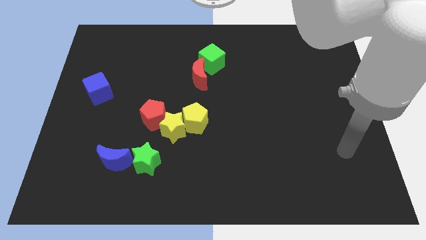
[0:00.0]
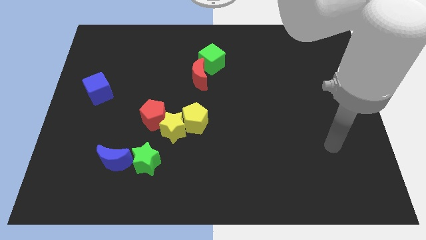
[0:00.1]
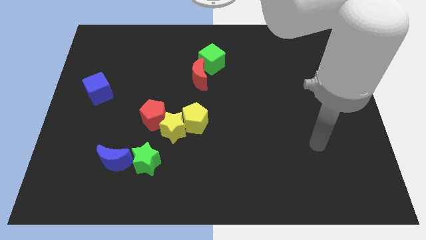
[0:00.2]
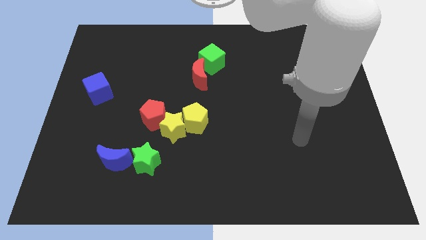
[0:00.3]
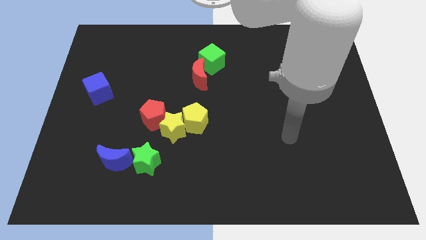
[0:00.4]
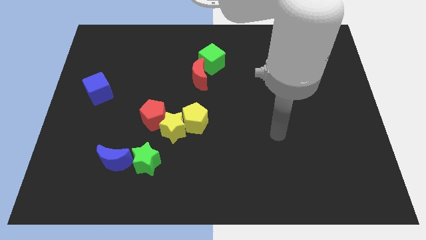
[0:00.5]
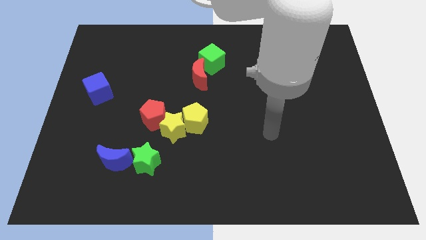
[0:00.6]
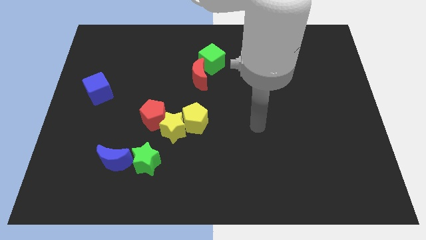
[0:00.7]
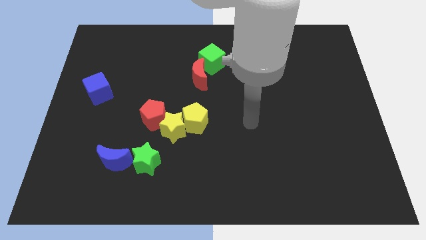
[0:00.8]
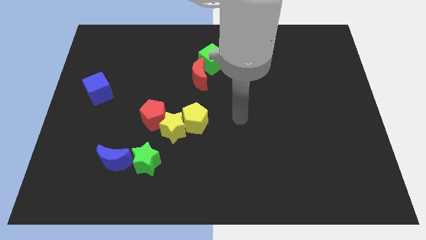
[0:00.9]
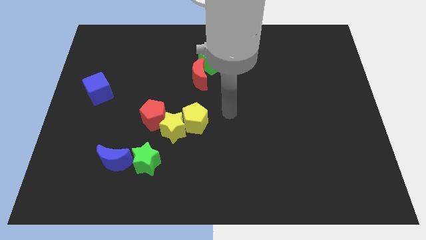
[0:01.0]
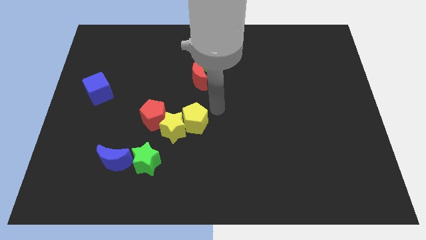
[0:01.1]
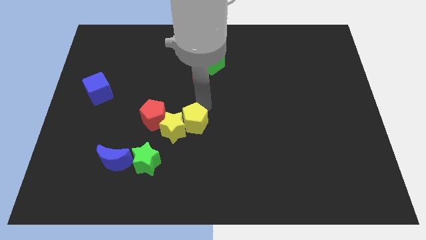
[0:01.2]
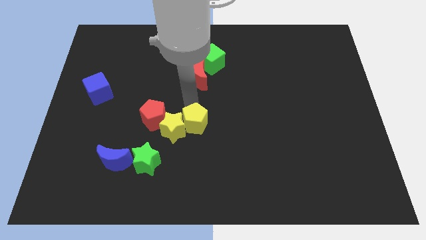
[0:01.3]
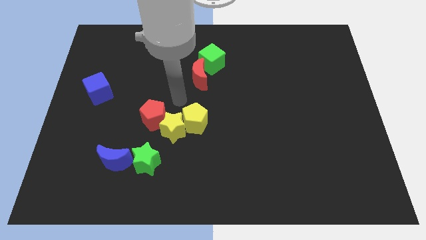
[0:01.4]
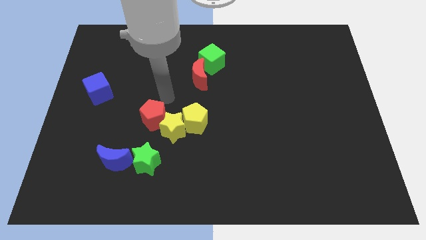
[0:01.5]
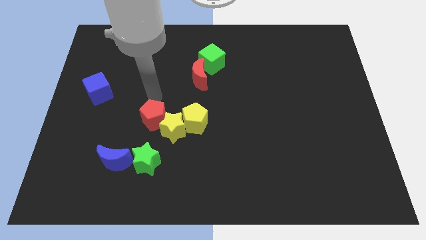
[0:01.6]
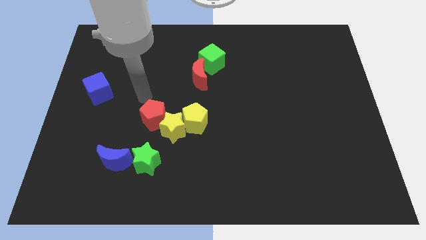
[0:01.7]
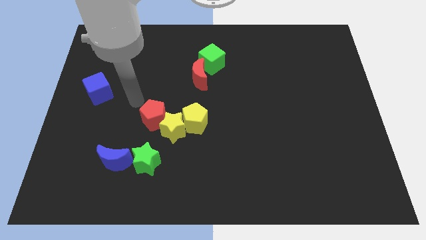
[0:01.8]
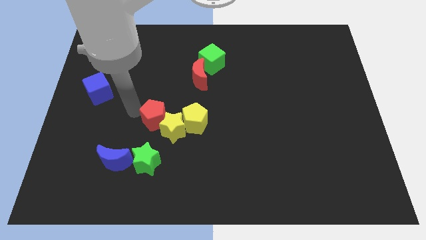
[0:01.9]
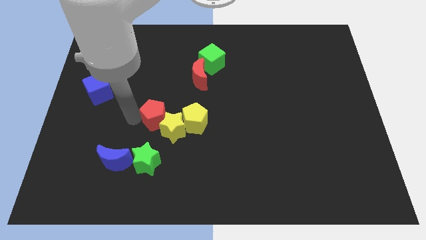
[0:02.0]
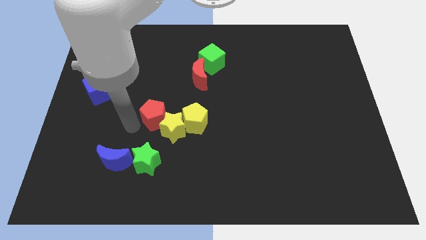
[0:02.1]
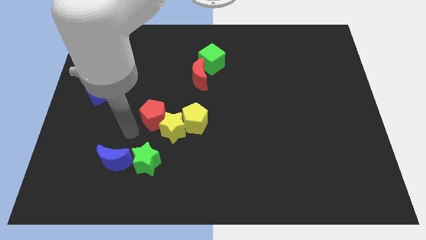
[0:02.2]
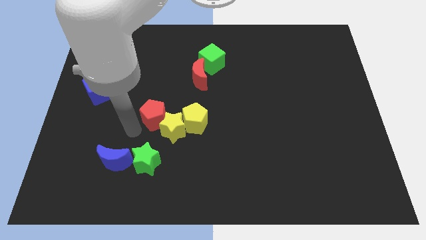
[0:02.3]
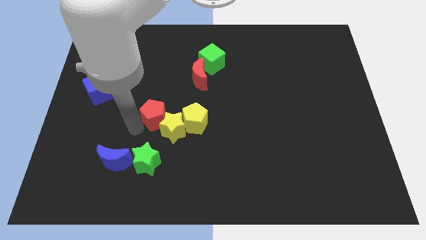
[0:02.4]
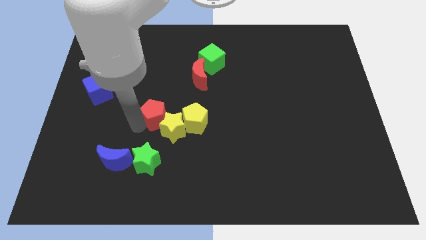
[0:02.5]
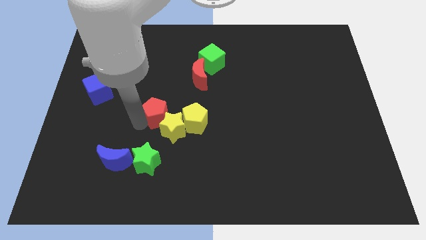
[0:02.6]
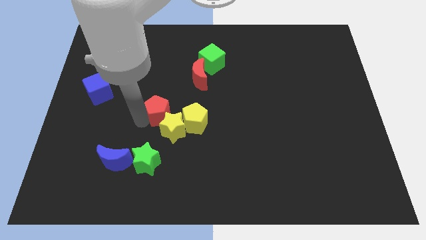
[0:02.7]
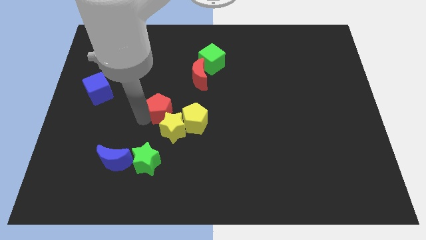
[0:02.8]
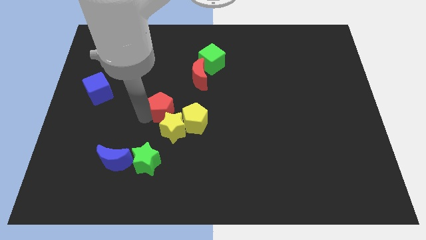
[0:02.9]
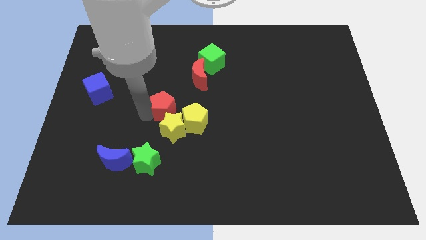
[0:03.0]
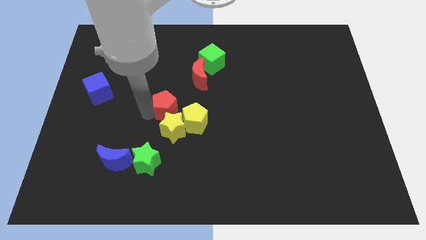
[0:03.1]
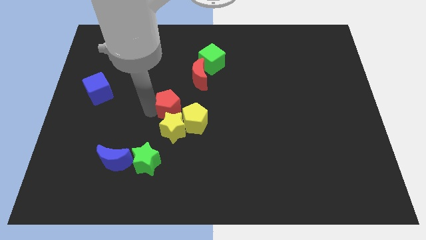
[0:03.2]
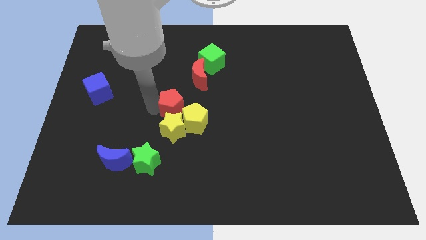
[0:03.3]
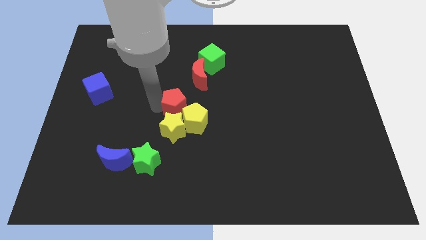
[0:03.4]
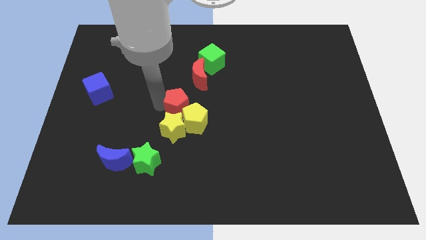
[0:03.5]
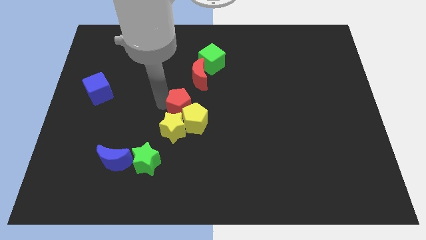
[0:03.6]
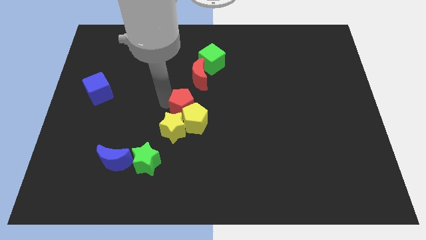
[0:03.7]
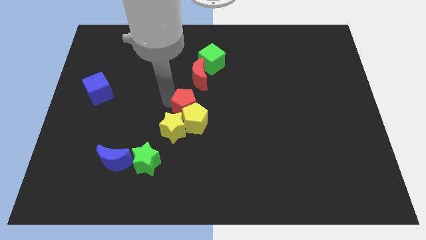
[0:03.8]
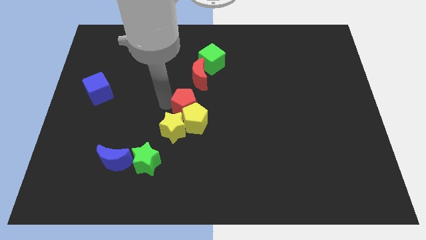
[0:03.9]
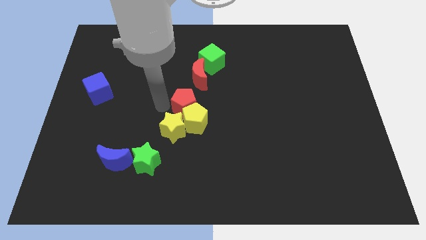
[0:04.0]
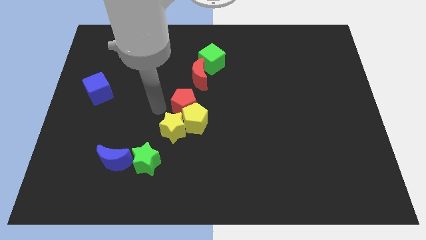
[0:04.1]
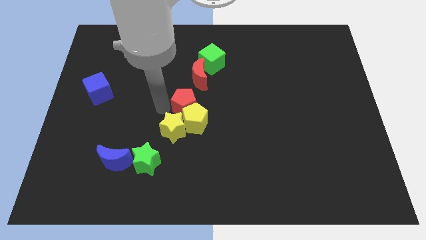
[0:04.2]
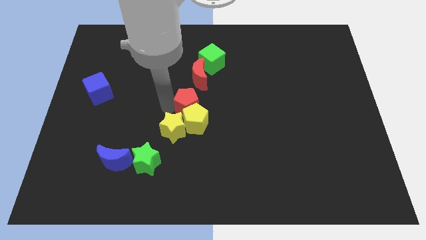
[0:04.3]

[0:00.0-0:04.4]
push the red pentagon to the right a bit

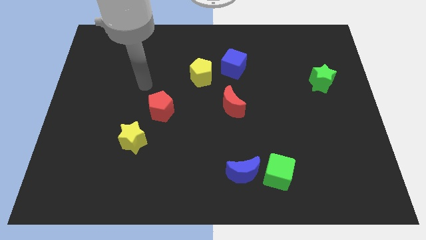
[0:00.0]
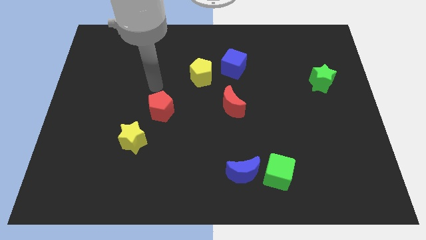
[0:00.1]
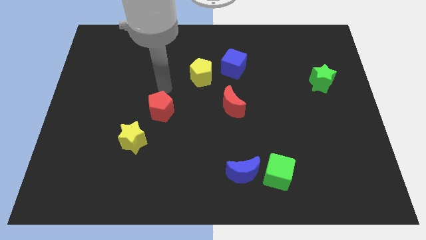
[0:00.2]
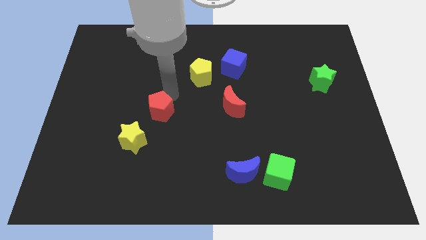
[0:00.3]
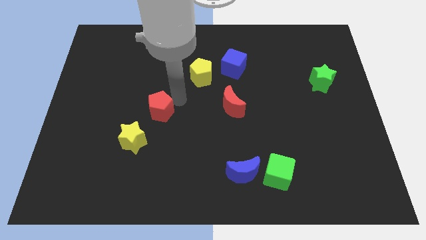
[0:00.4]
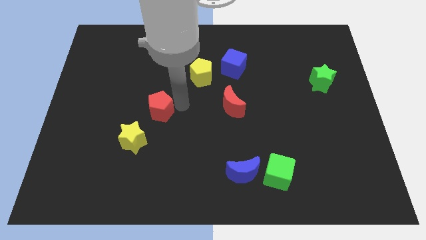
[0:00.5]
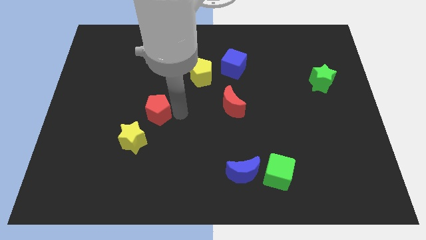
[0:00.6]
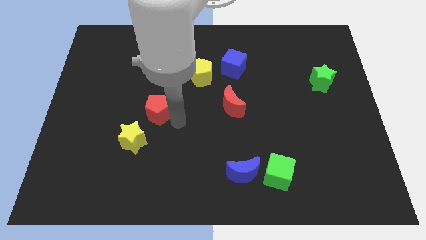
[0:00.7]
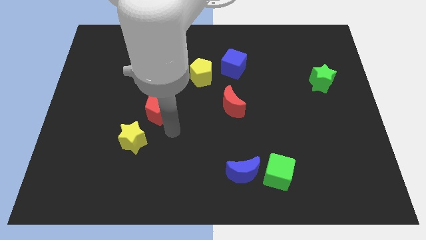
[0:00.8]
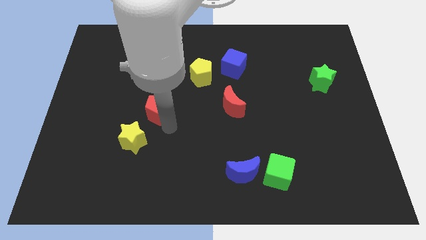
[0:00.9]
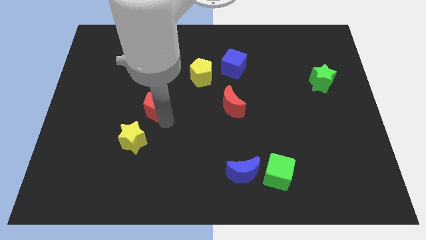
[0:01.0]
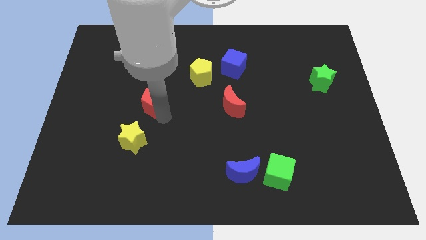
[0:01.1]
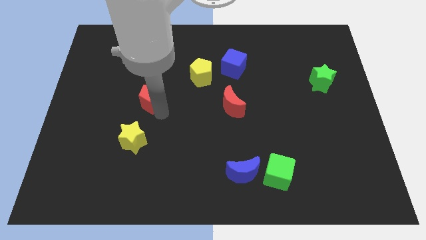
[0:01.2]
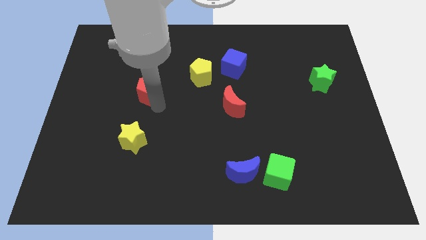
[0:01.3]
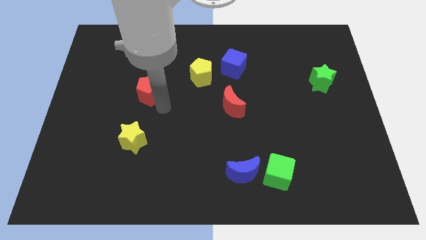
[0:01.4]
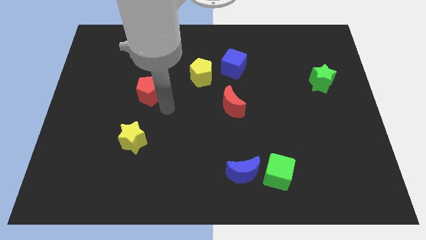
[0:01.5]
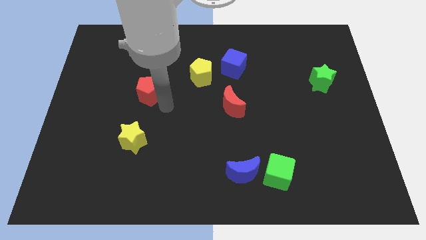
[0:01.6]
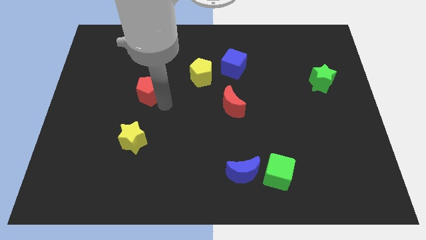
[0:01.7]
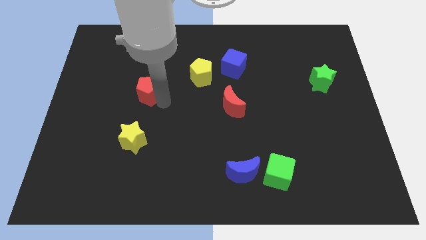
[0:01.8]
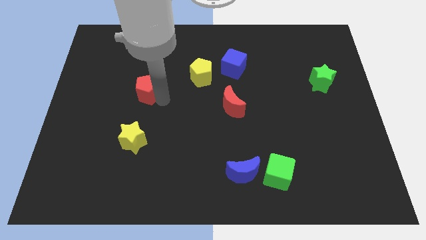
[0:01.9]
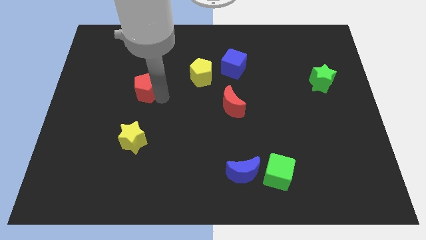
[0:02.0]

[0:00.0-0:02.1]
slightly move the red pentagon up and left

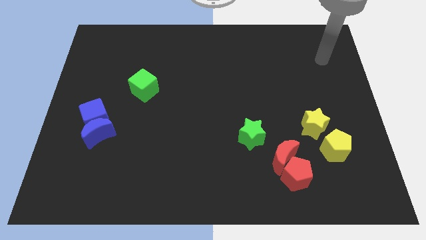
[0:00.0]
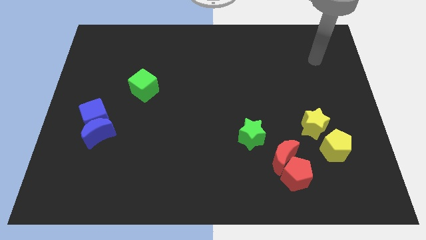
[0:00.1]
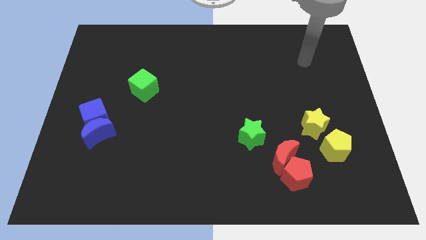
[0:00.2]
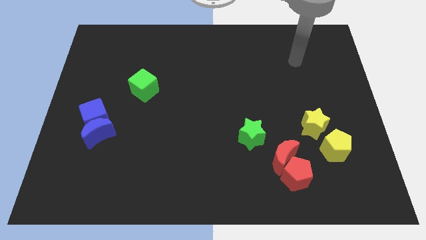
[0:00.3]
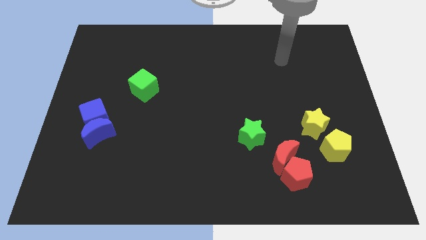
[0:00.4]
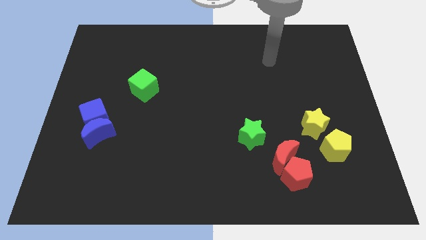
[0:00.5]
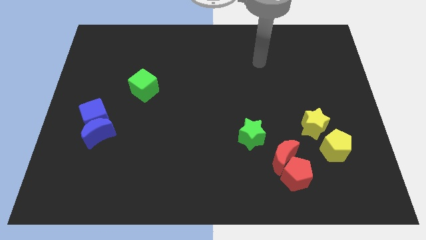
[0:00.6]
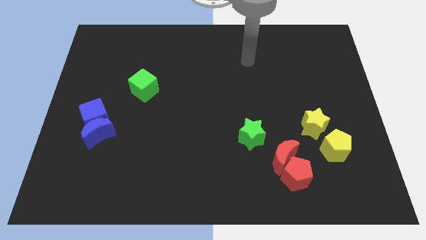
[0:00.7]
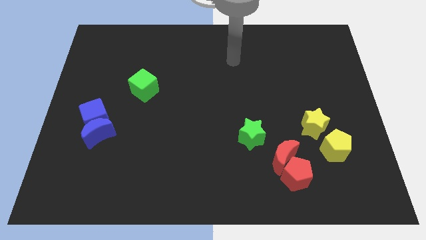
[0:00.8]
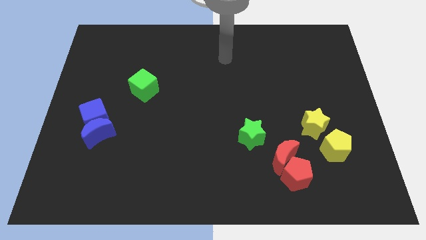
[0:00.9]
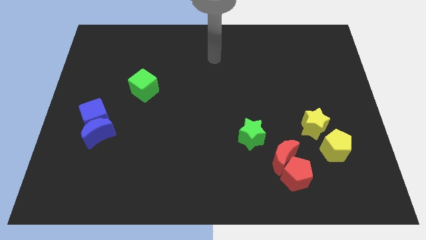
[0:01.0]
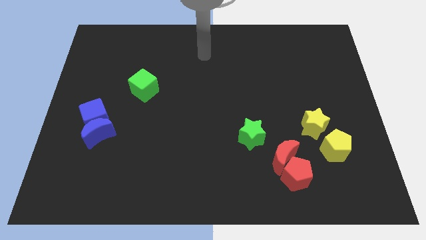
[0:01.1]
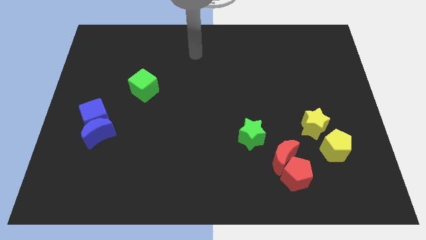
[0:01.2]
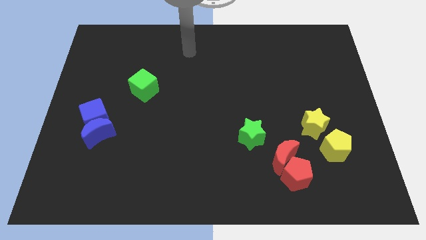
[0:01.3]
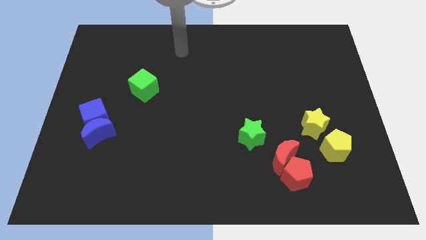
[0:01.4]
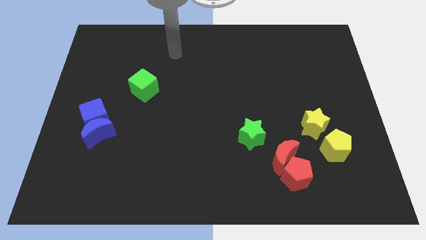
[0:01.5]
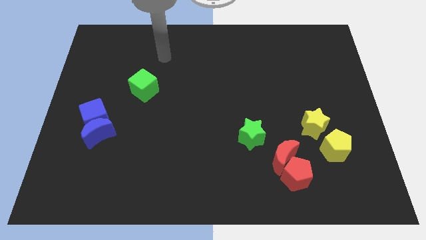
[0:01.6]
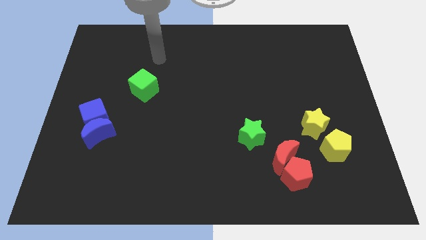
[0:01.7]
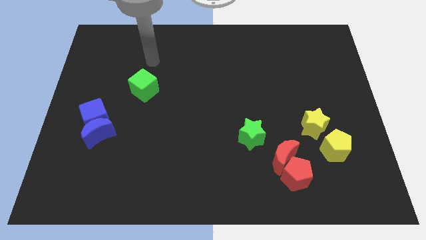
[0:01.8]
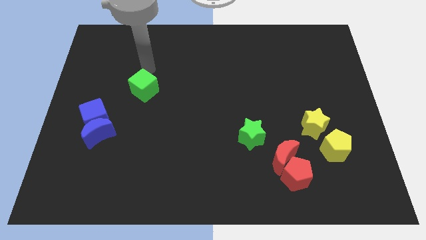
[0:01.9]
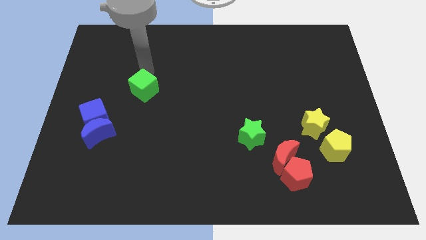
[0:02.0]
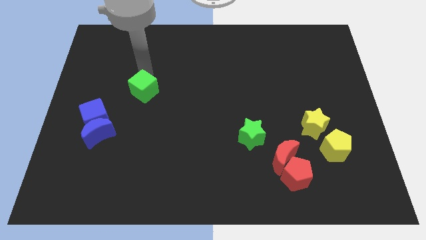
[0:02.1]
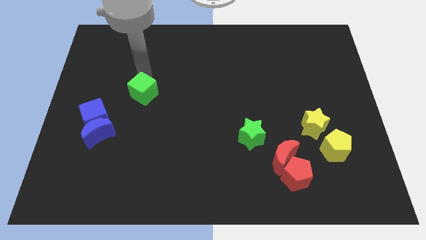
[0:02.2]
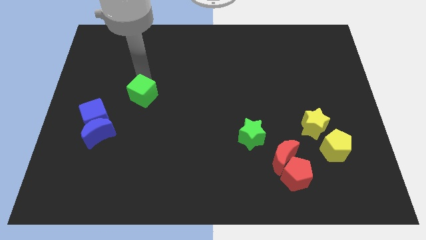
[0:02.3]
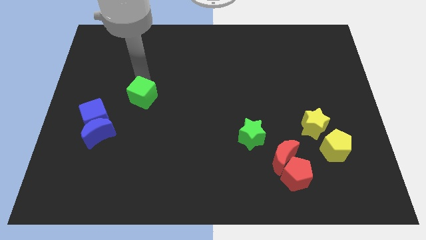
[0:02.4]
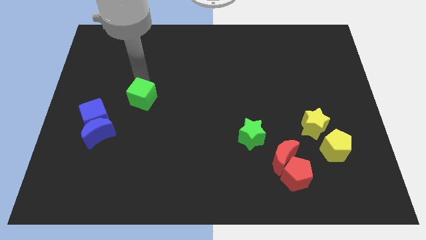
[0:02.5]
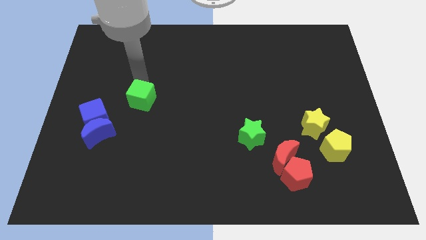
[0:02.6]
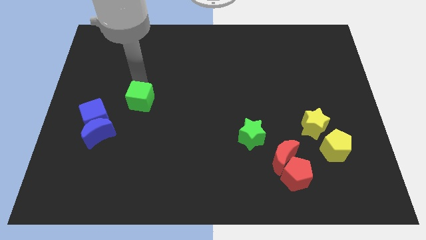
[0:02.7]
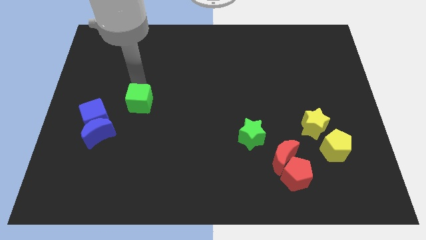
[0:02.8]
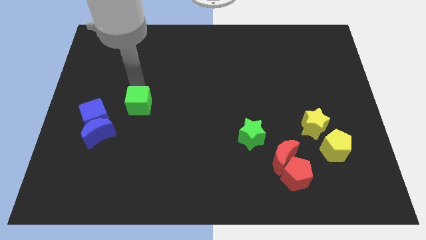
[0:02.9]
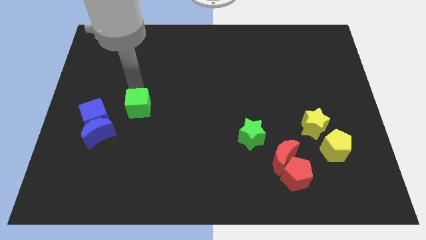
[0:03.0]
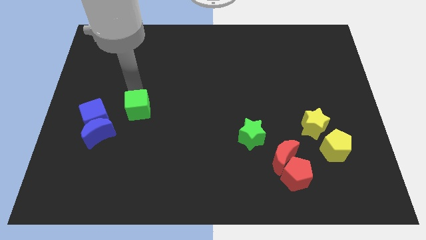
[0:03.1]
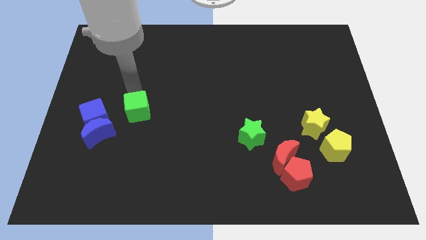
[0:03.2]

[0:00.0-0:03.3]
slightly push the green cube down
